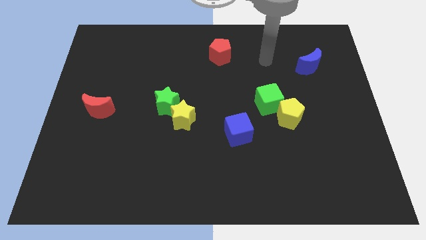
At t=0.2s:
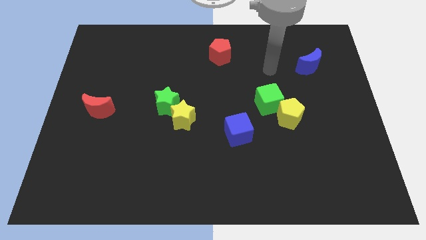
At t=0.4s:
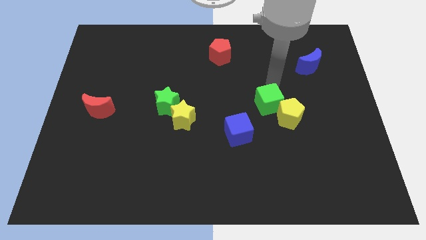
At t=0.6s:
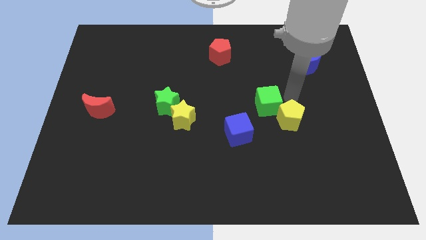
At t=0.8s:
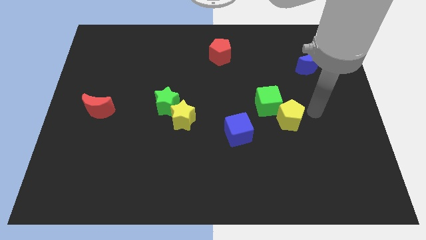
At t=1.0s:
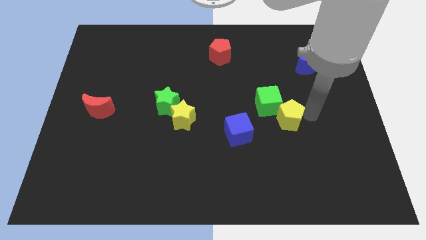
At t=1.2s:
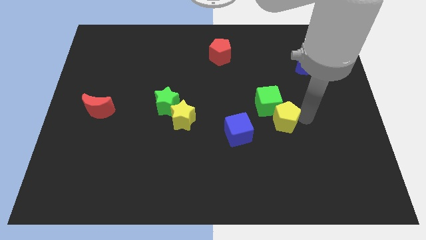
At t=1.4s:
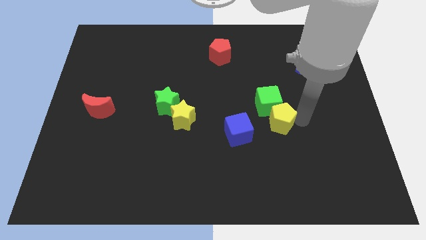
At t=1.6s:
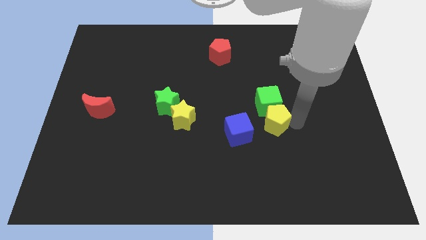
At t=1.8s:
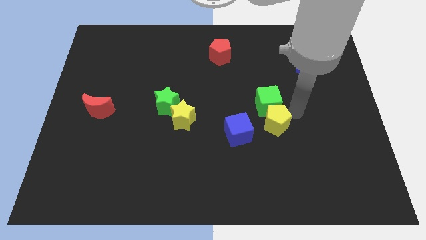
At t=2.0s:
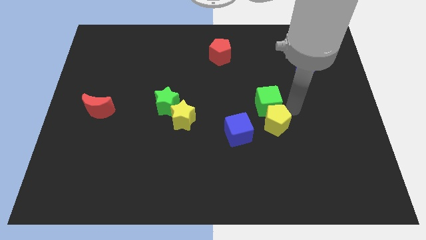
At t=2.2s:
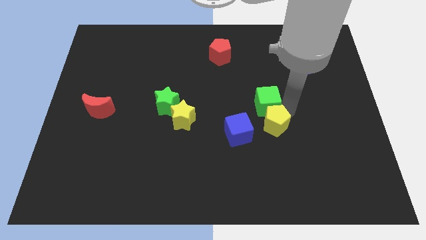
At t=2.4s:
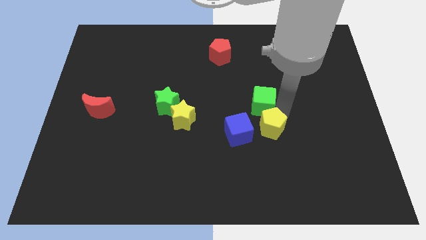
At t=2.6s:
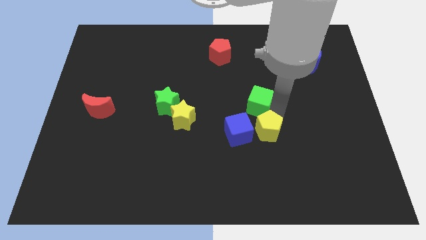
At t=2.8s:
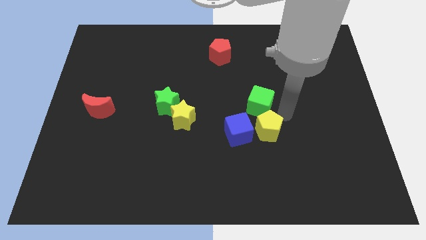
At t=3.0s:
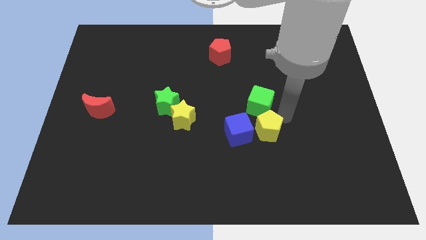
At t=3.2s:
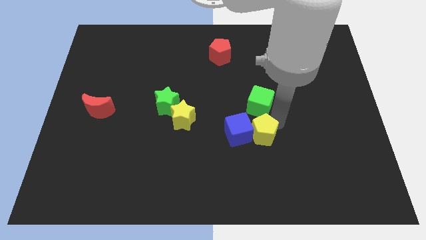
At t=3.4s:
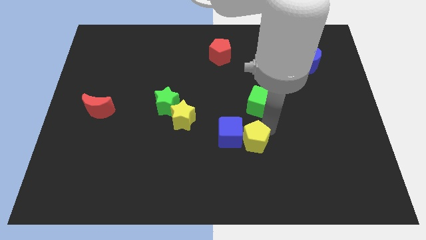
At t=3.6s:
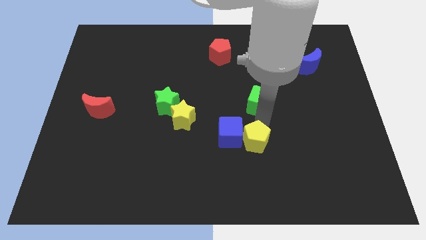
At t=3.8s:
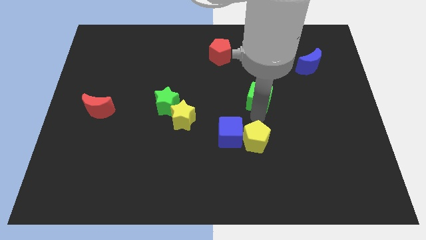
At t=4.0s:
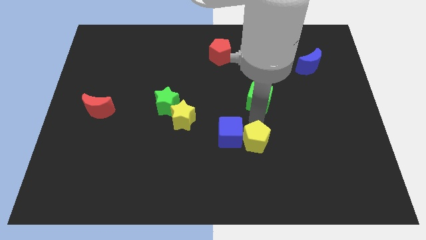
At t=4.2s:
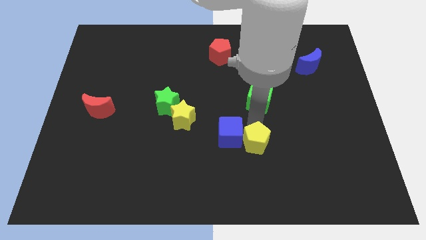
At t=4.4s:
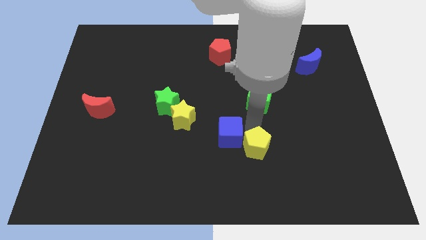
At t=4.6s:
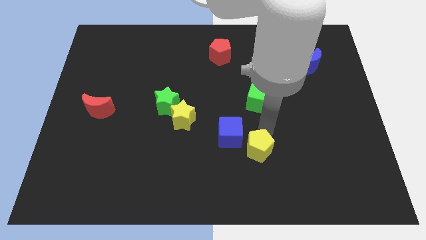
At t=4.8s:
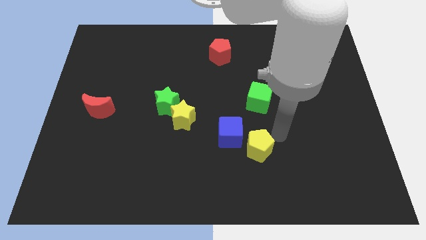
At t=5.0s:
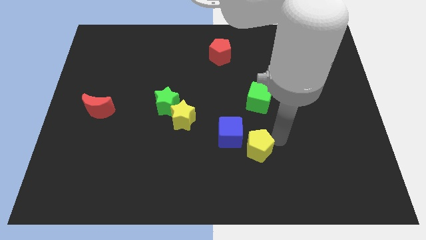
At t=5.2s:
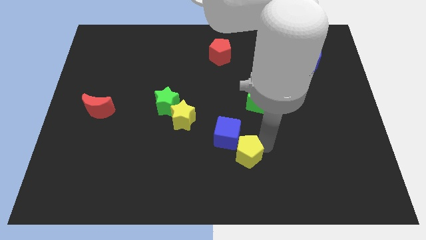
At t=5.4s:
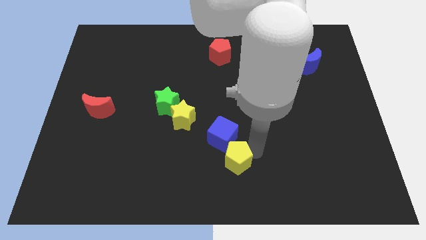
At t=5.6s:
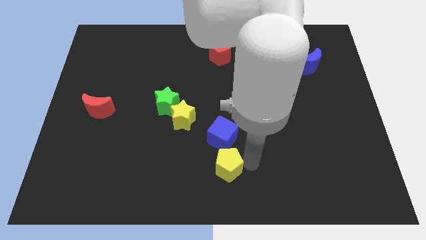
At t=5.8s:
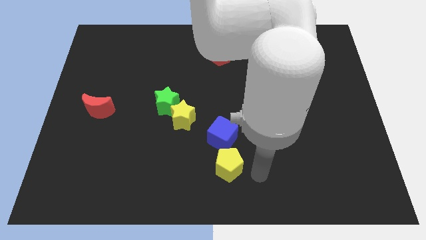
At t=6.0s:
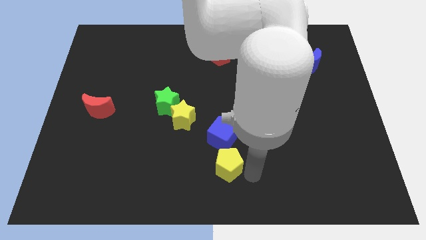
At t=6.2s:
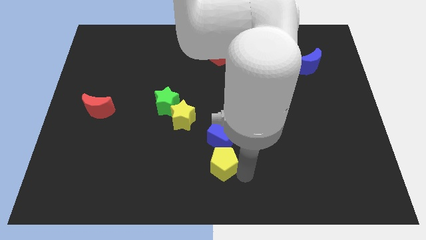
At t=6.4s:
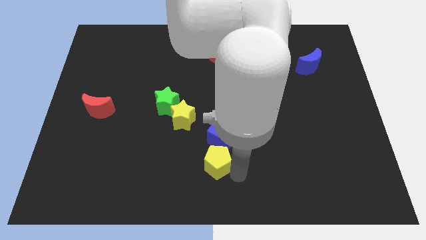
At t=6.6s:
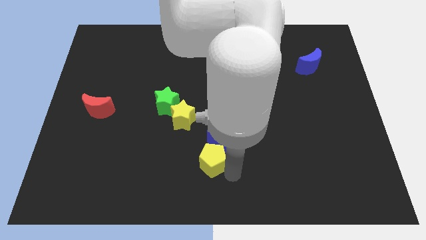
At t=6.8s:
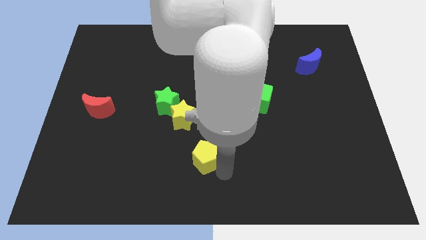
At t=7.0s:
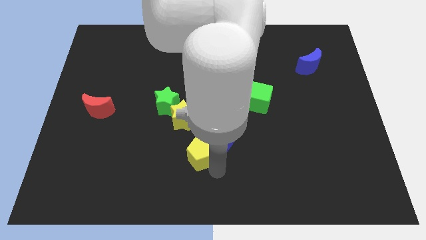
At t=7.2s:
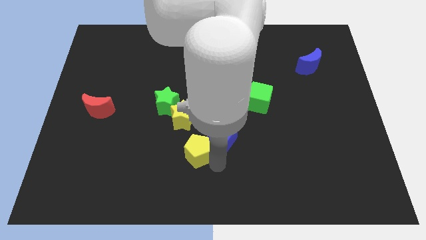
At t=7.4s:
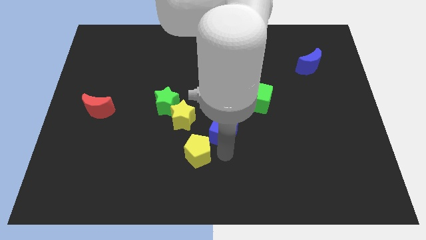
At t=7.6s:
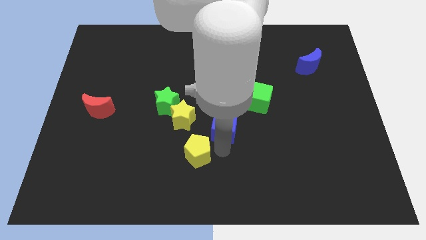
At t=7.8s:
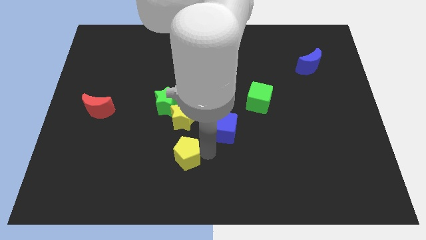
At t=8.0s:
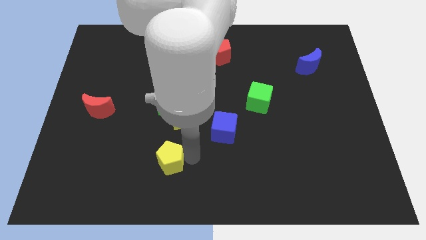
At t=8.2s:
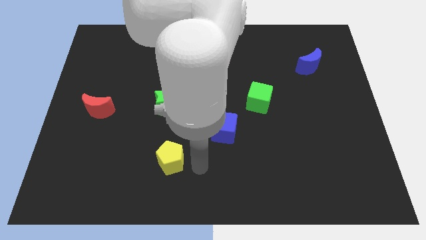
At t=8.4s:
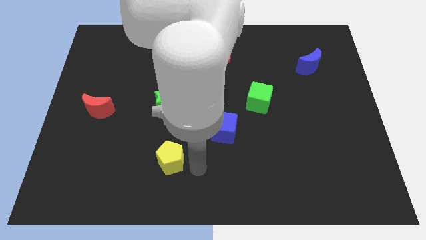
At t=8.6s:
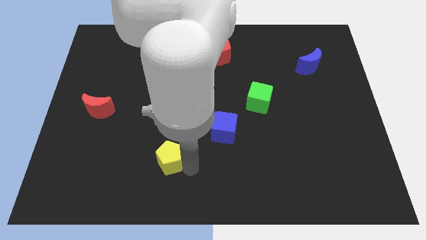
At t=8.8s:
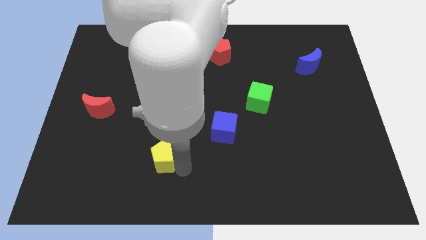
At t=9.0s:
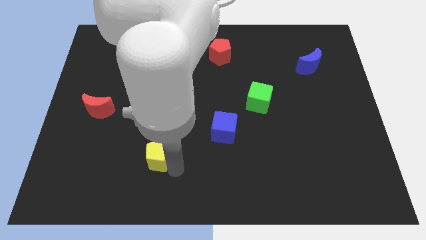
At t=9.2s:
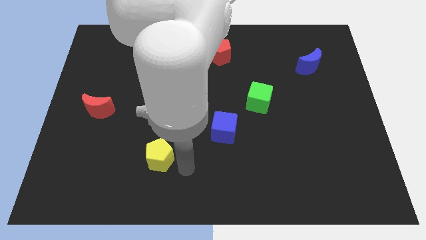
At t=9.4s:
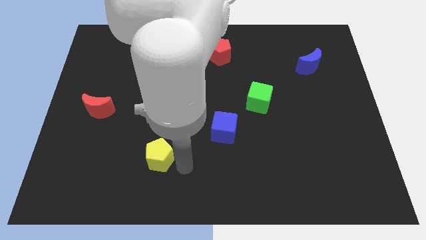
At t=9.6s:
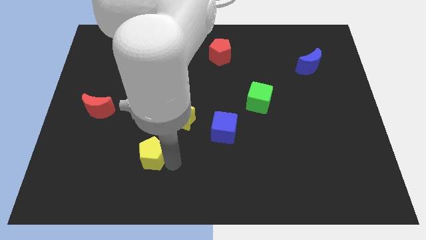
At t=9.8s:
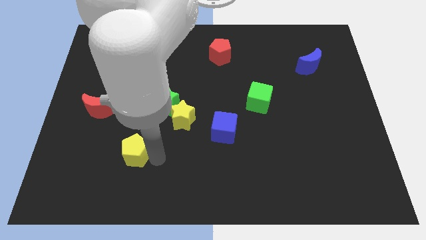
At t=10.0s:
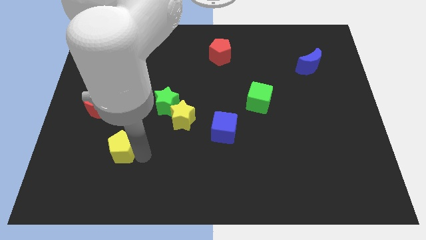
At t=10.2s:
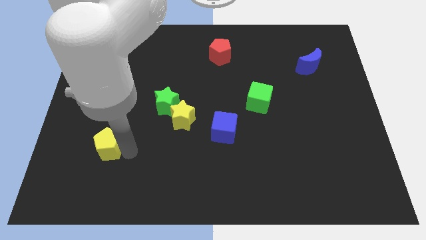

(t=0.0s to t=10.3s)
move the yellow pentagon below the red moon

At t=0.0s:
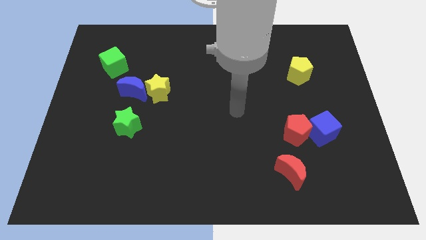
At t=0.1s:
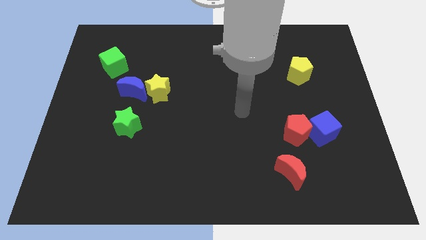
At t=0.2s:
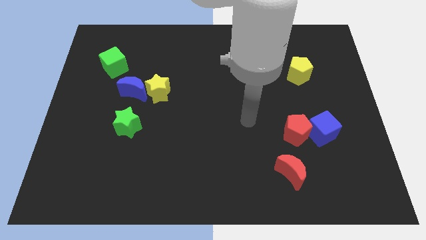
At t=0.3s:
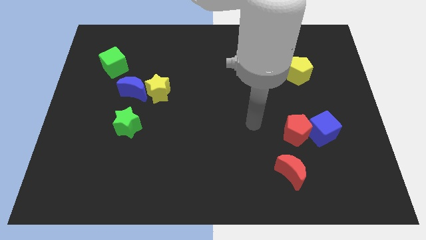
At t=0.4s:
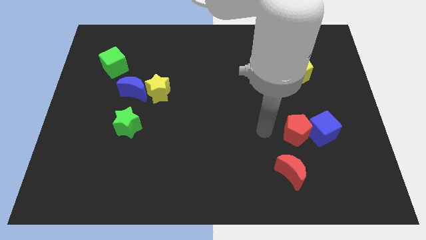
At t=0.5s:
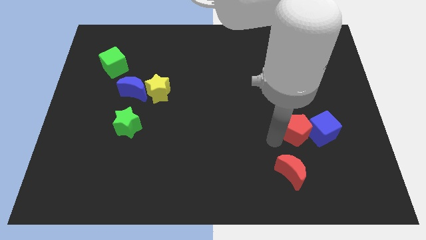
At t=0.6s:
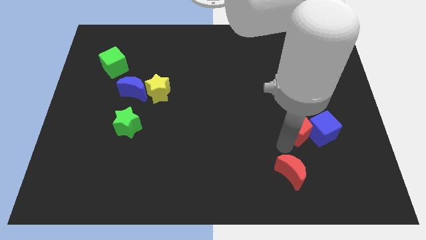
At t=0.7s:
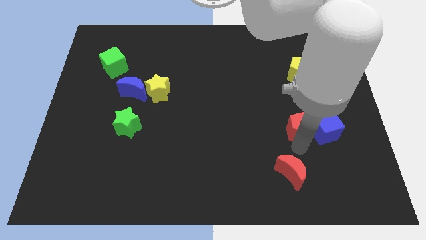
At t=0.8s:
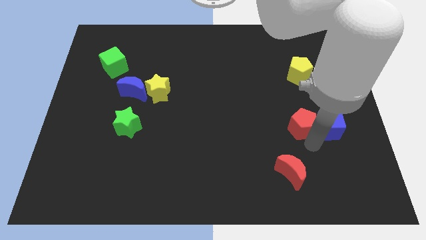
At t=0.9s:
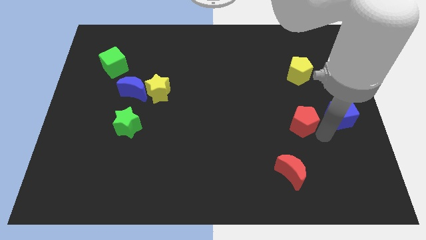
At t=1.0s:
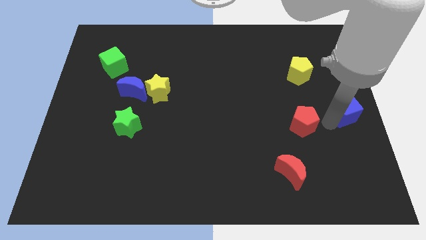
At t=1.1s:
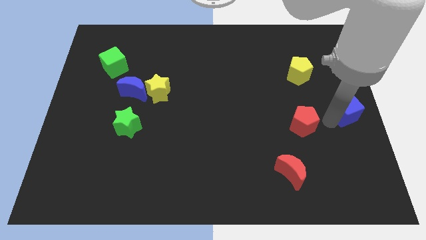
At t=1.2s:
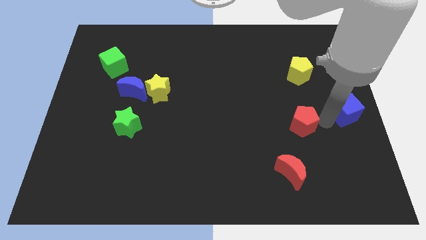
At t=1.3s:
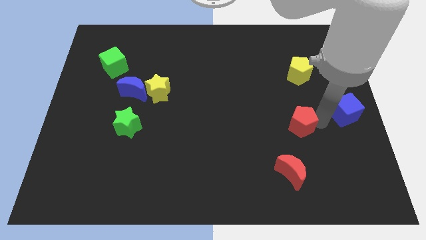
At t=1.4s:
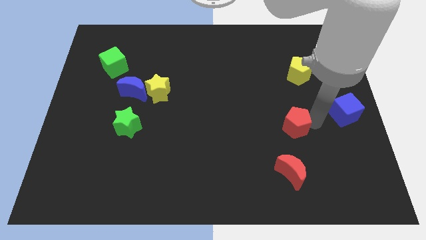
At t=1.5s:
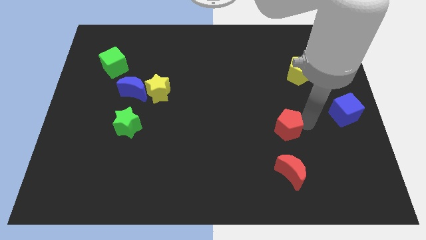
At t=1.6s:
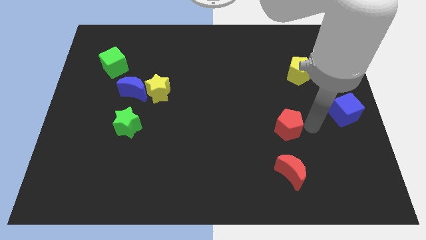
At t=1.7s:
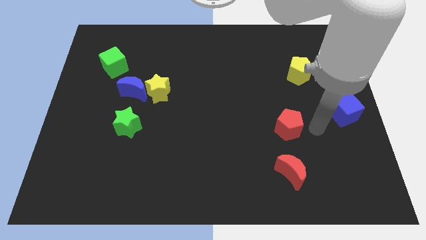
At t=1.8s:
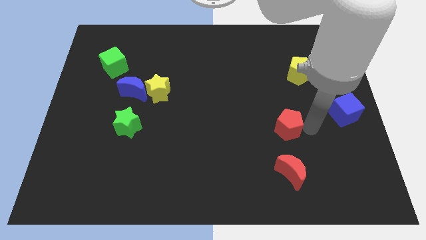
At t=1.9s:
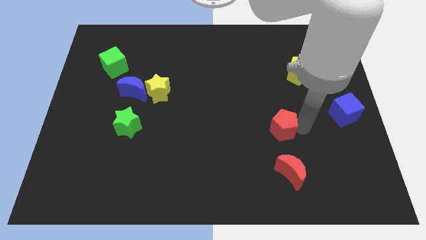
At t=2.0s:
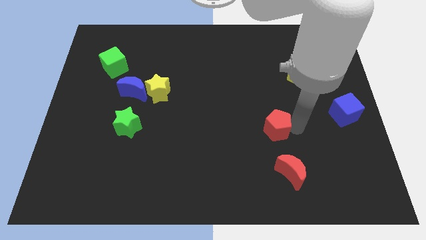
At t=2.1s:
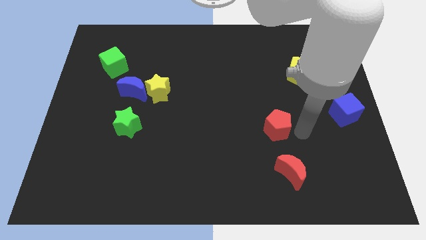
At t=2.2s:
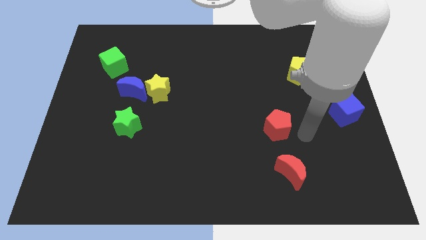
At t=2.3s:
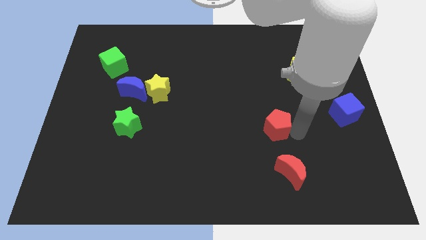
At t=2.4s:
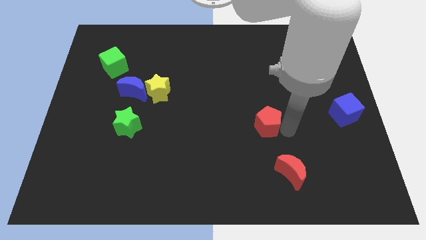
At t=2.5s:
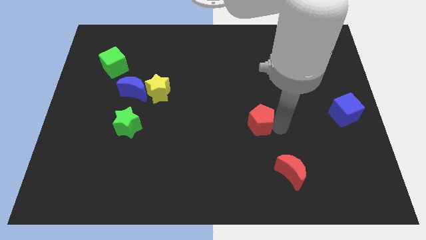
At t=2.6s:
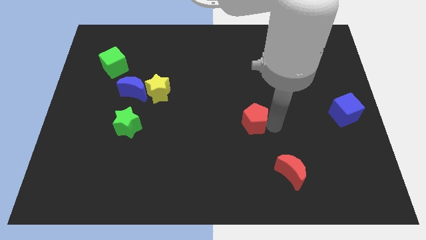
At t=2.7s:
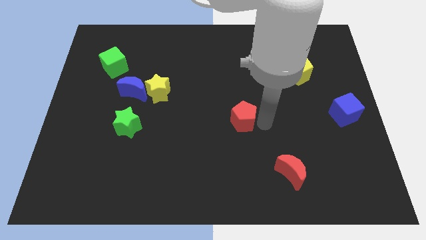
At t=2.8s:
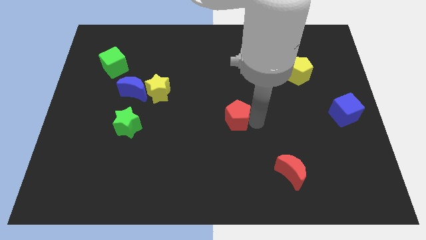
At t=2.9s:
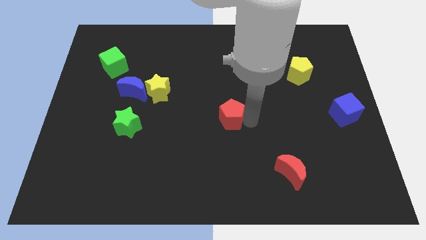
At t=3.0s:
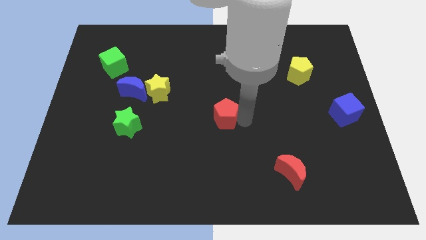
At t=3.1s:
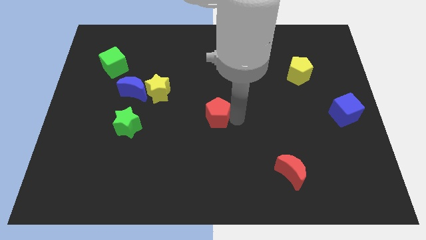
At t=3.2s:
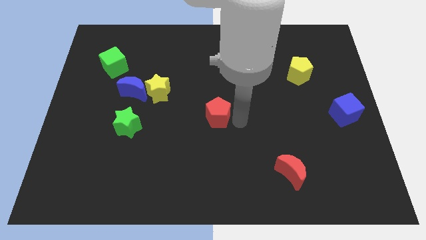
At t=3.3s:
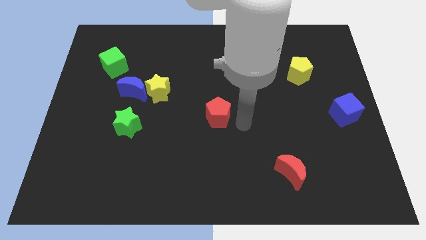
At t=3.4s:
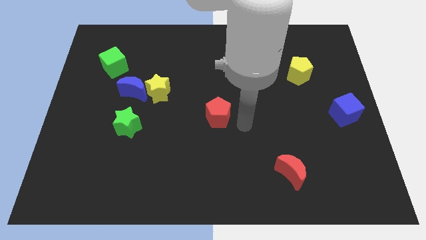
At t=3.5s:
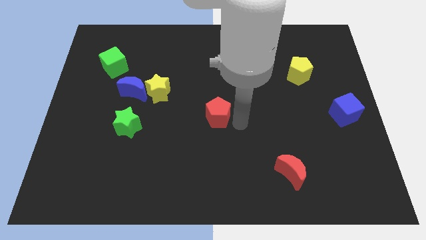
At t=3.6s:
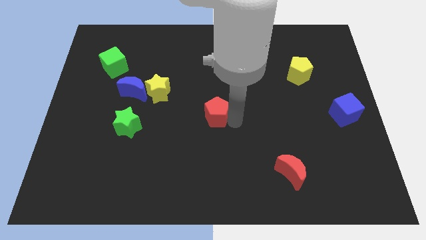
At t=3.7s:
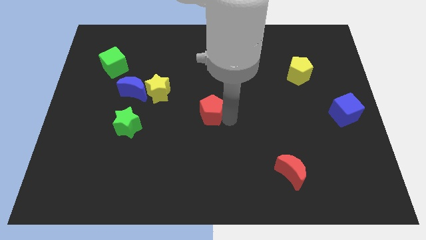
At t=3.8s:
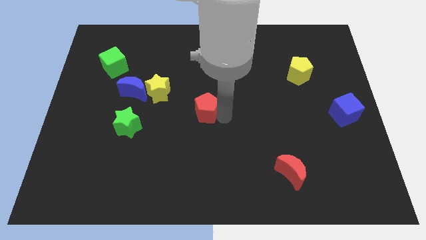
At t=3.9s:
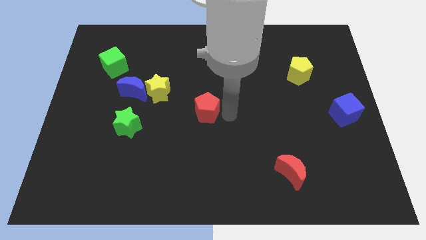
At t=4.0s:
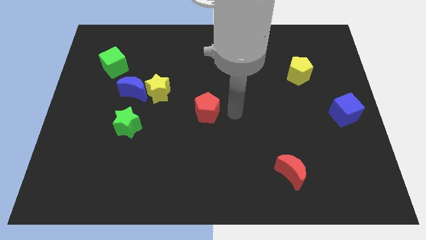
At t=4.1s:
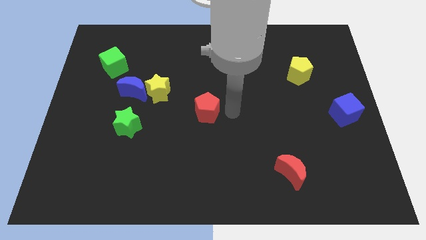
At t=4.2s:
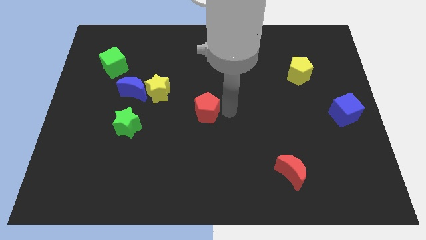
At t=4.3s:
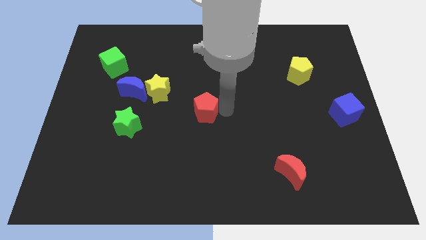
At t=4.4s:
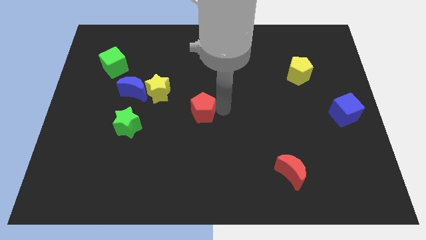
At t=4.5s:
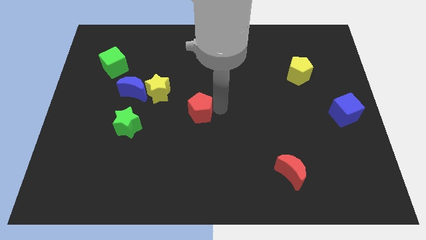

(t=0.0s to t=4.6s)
push the red pentagon to the bottom right side of the yellow star
